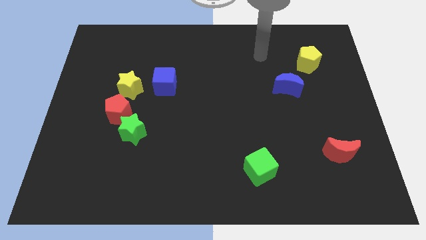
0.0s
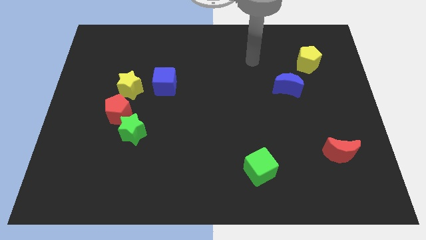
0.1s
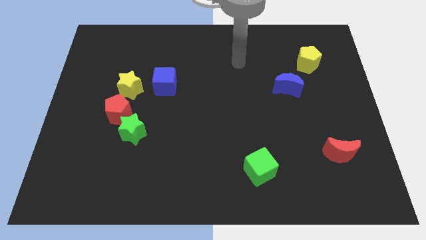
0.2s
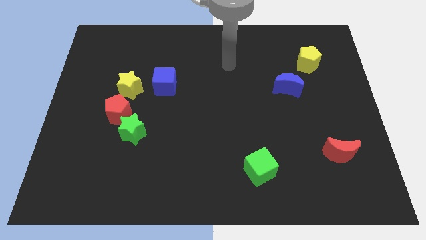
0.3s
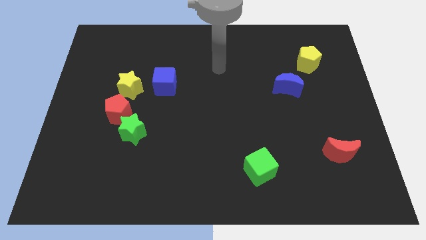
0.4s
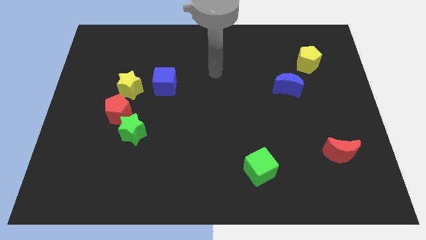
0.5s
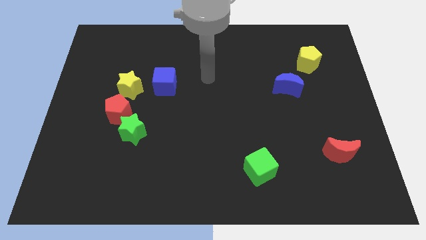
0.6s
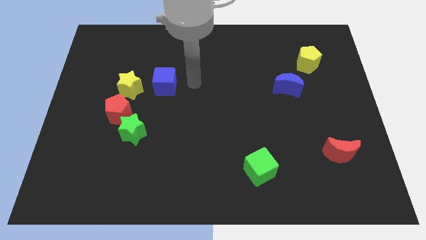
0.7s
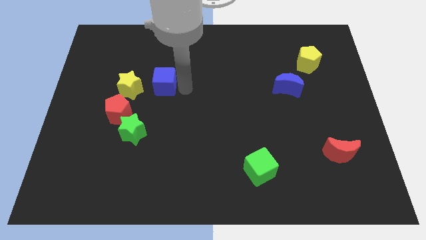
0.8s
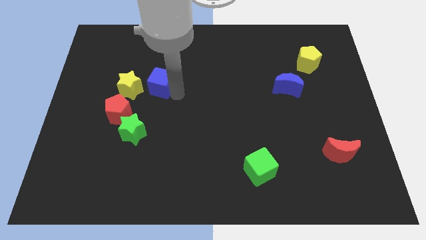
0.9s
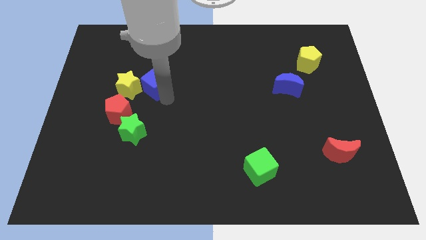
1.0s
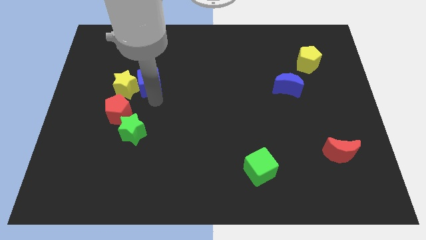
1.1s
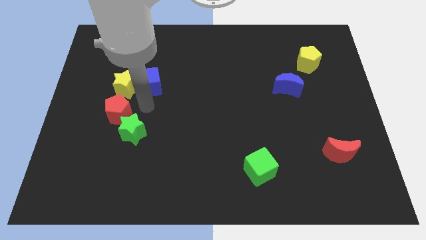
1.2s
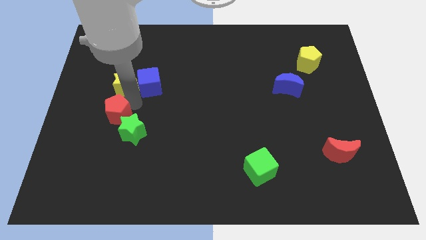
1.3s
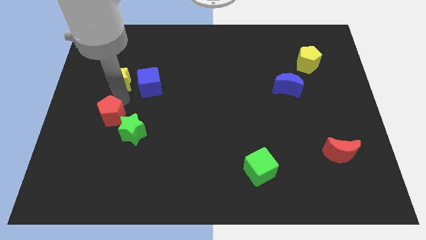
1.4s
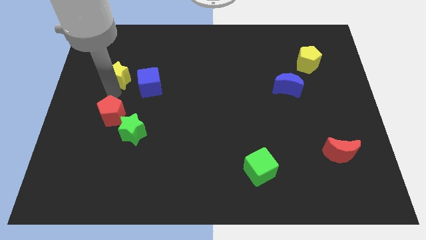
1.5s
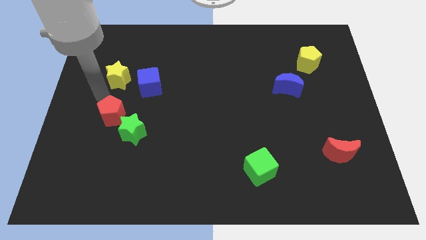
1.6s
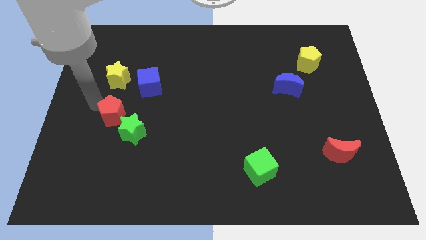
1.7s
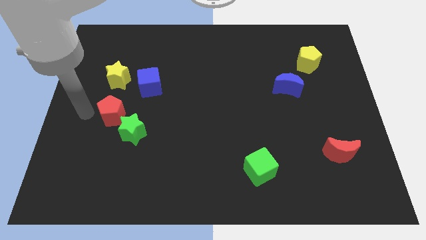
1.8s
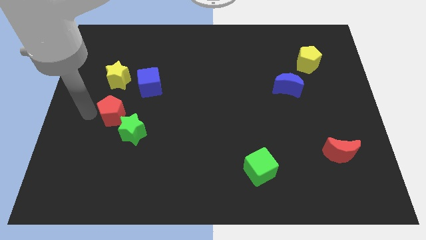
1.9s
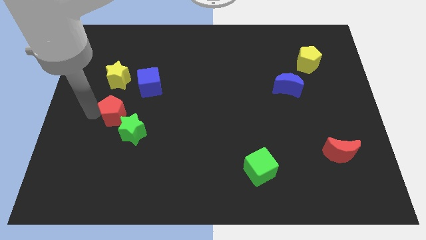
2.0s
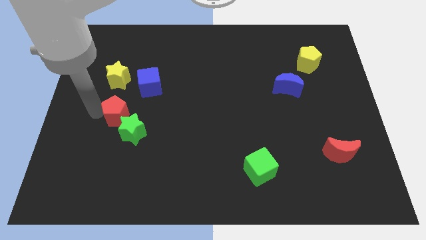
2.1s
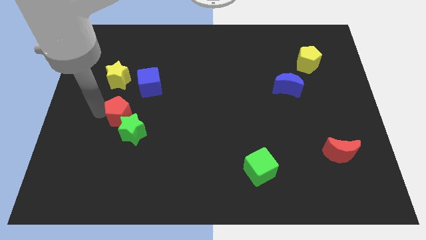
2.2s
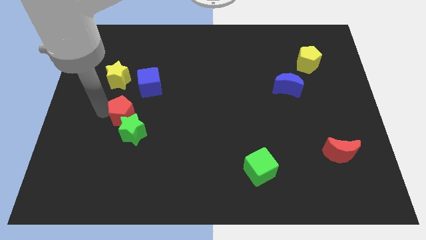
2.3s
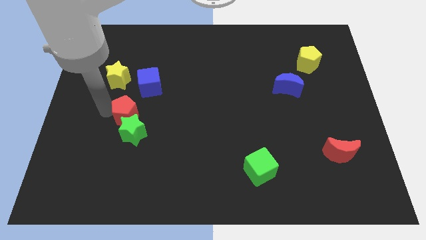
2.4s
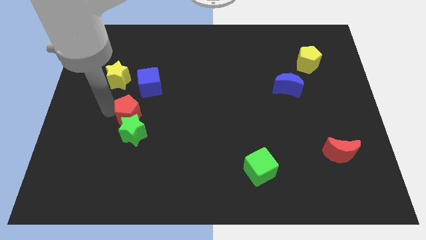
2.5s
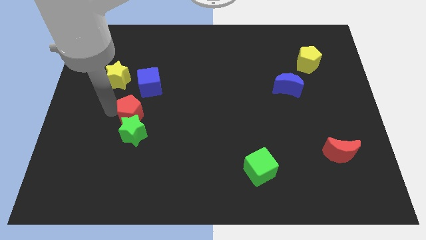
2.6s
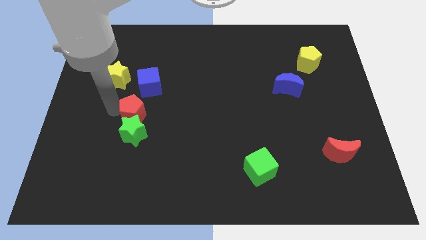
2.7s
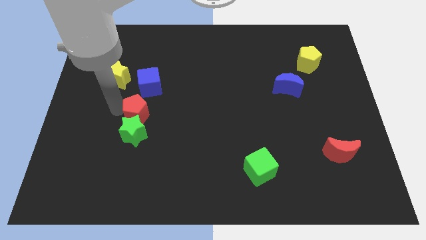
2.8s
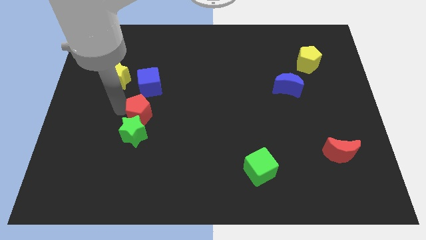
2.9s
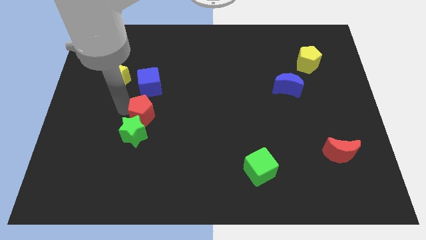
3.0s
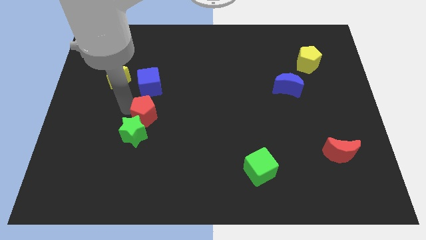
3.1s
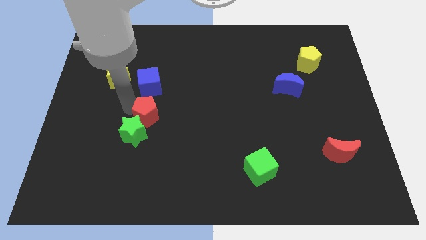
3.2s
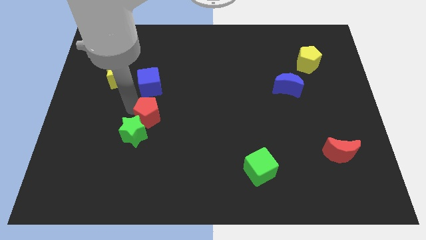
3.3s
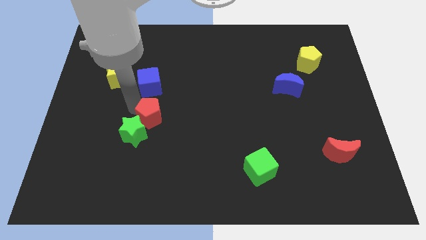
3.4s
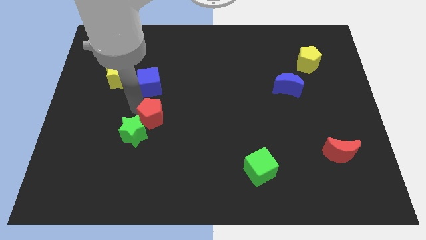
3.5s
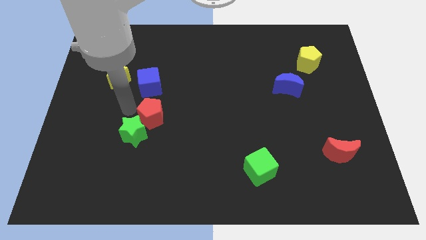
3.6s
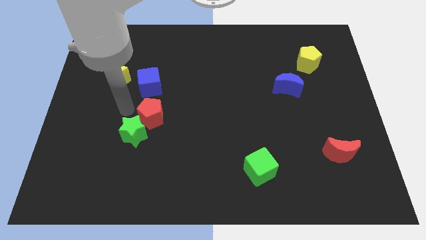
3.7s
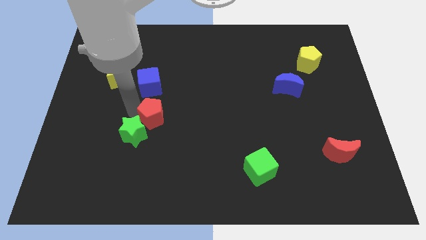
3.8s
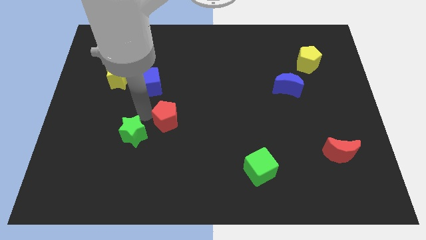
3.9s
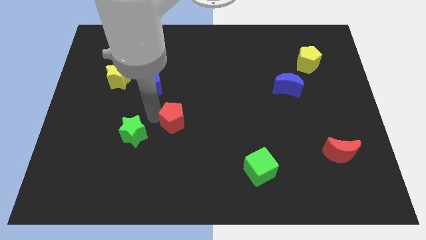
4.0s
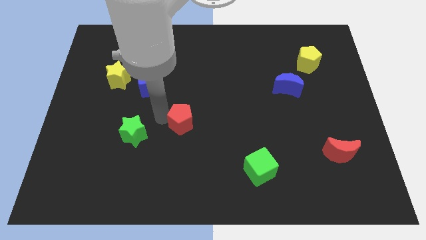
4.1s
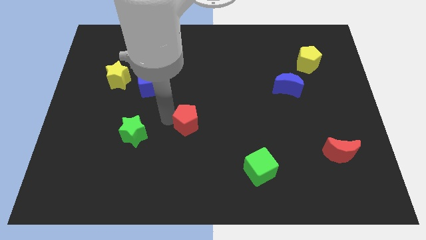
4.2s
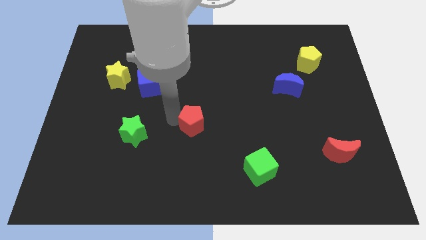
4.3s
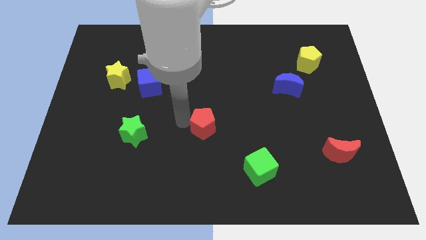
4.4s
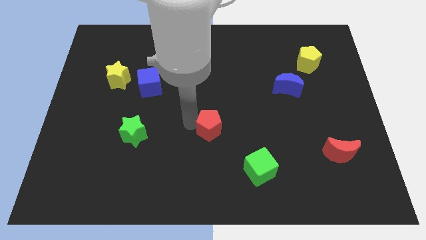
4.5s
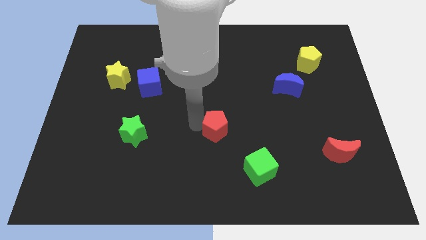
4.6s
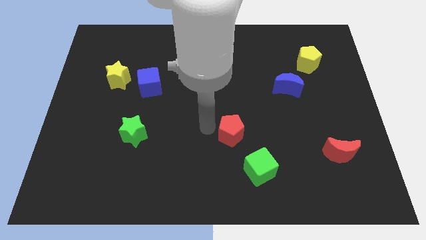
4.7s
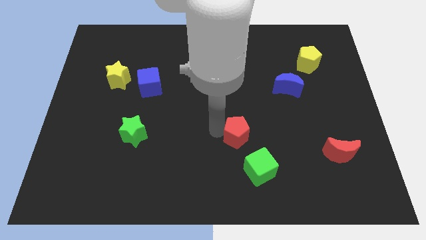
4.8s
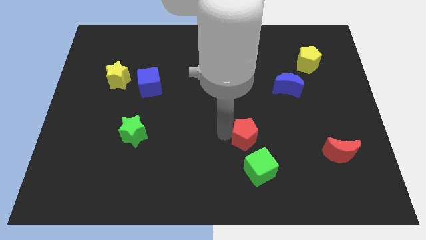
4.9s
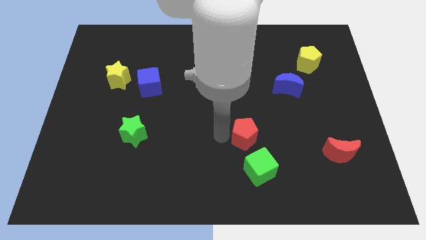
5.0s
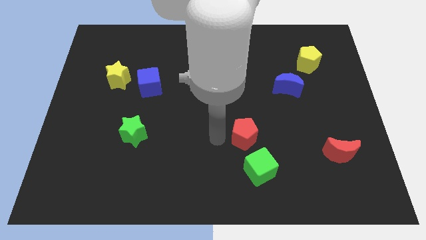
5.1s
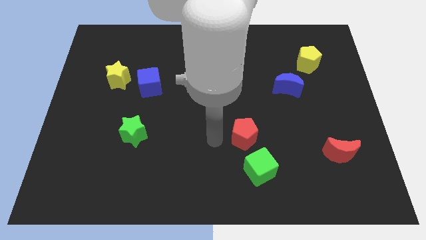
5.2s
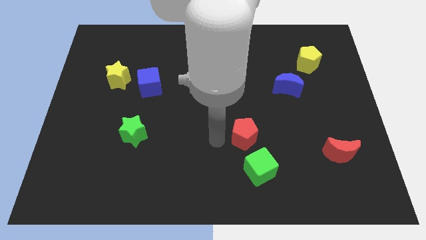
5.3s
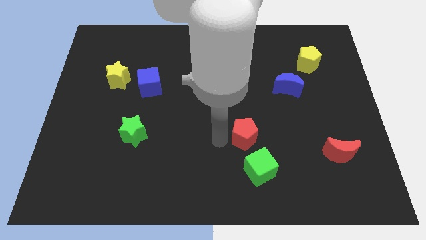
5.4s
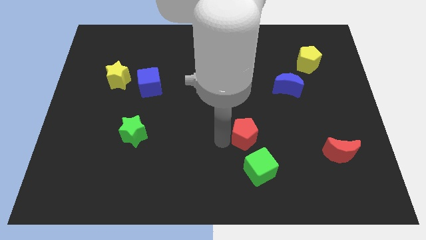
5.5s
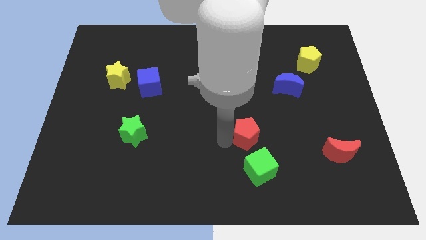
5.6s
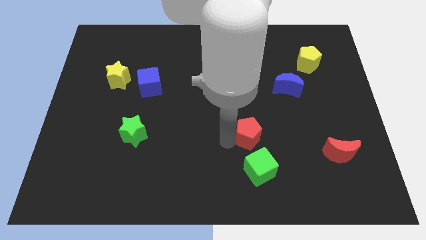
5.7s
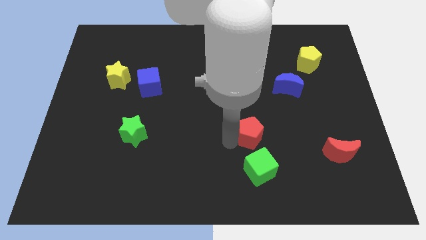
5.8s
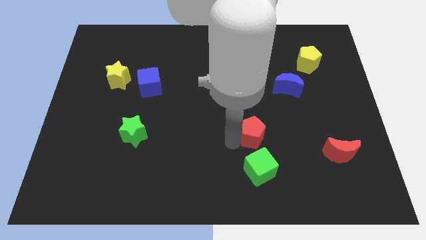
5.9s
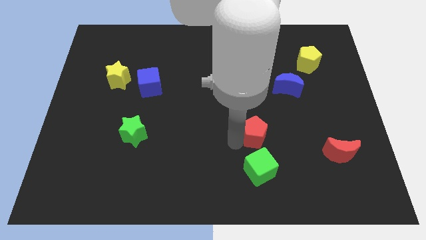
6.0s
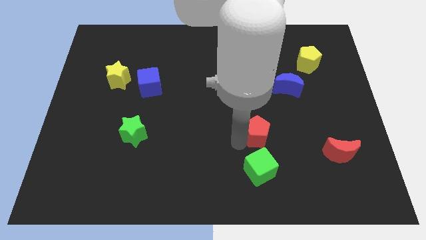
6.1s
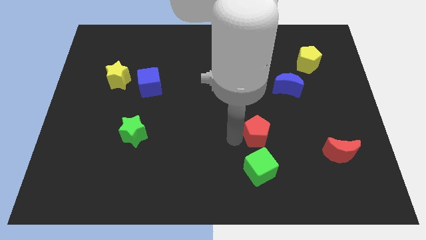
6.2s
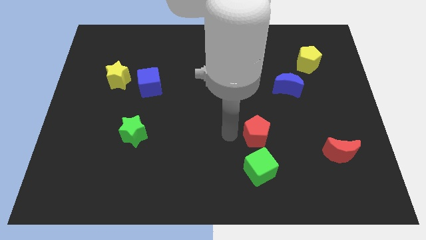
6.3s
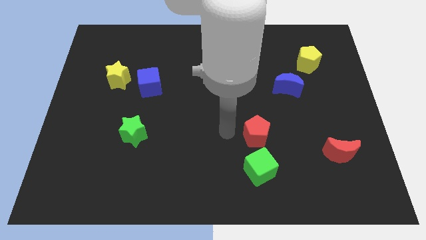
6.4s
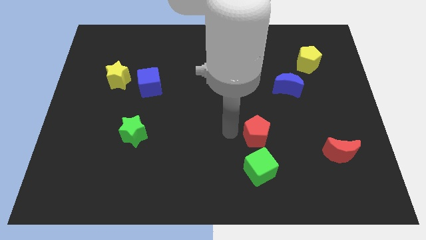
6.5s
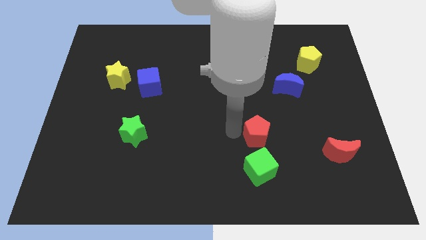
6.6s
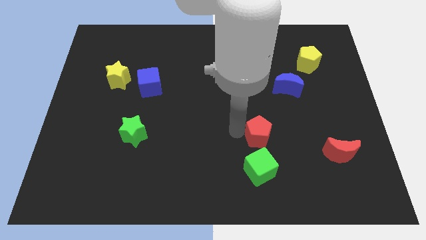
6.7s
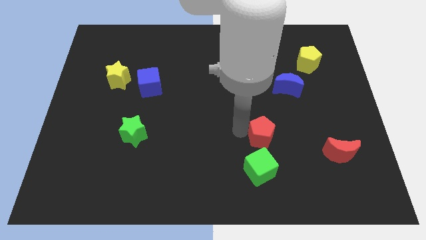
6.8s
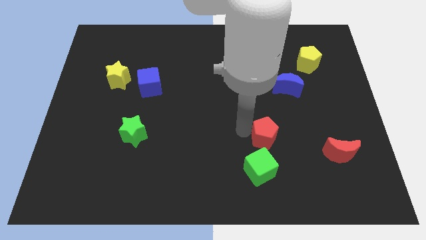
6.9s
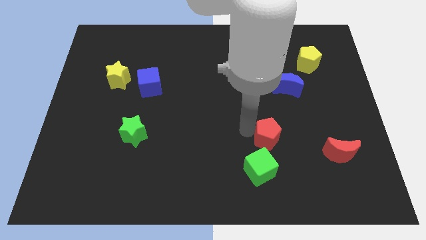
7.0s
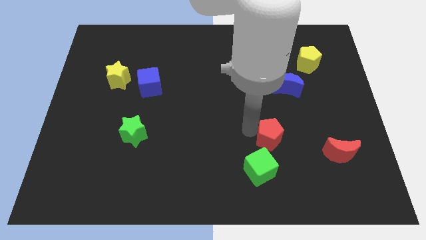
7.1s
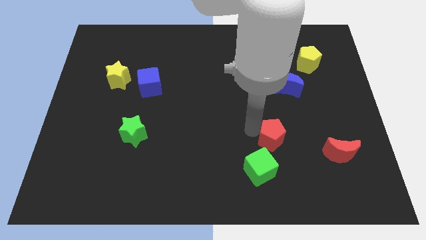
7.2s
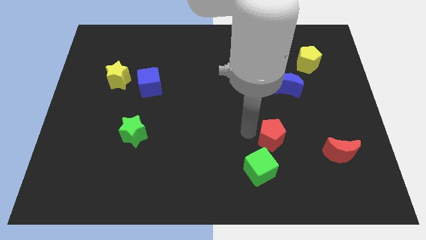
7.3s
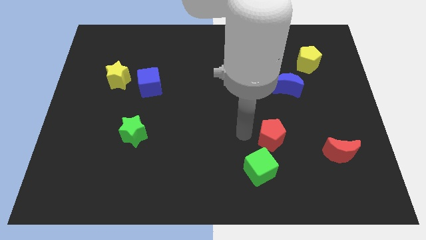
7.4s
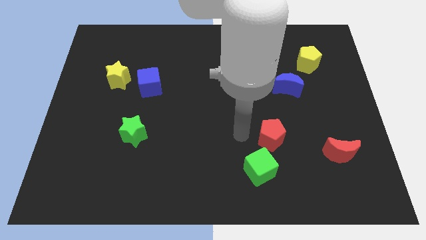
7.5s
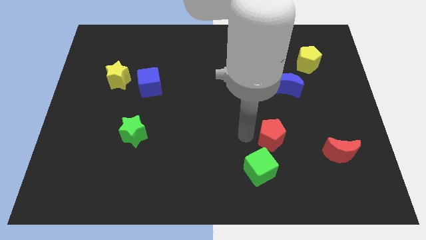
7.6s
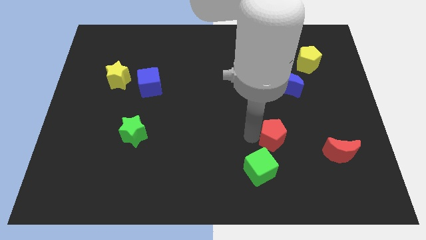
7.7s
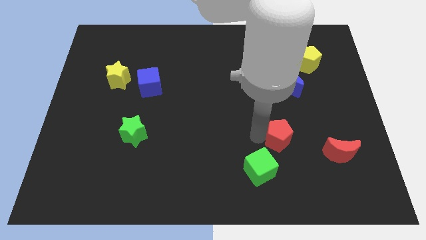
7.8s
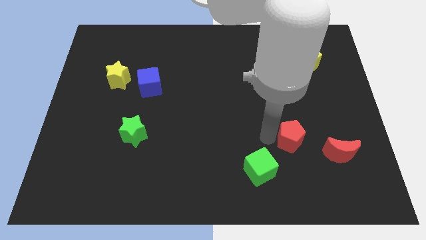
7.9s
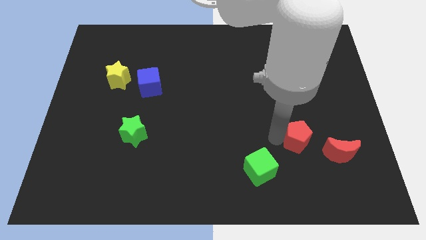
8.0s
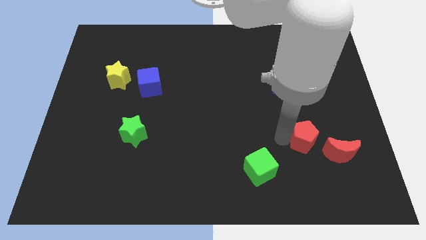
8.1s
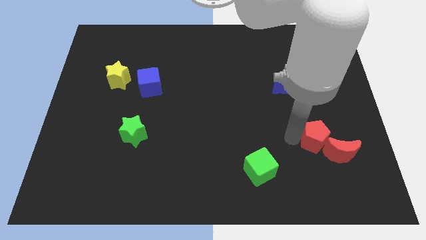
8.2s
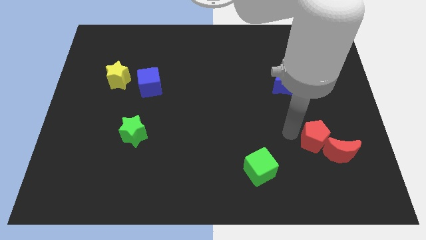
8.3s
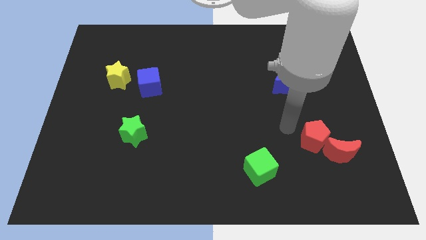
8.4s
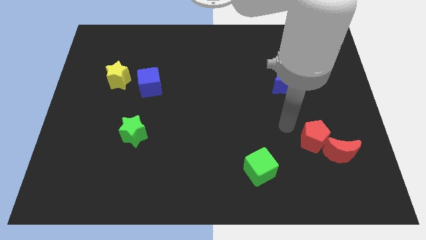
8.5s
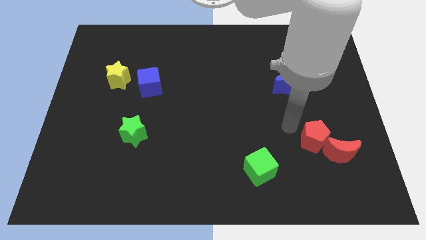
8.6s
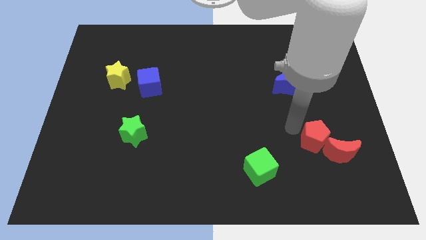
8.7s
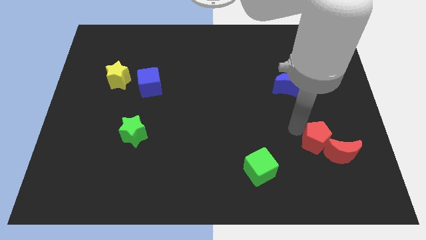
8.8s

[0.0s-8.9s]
push the red pentagon towards the red moon
